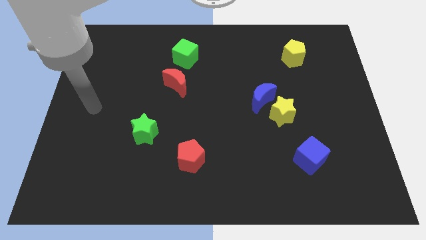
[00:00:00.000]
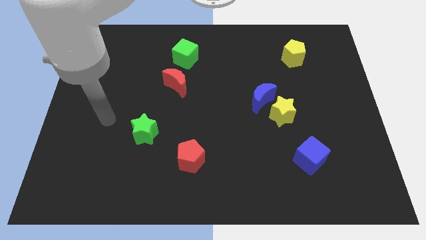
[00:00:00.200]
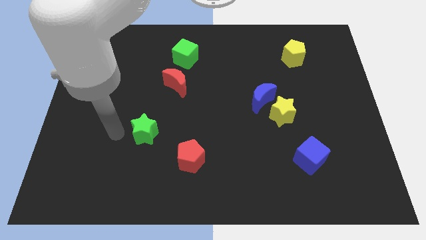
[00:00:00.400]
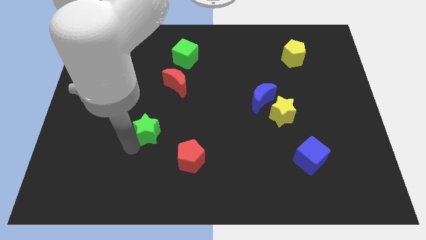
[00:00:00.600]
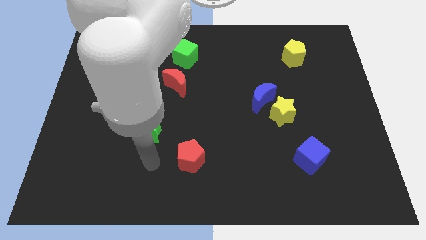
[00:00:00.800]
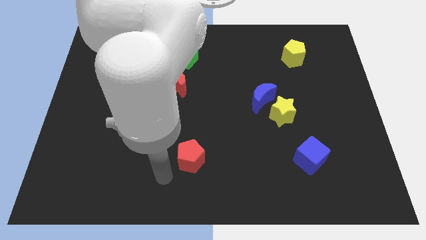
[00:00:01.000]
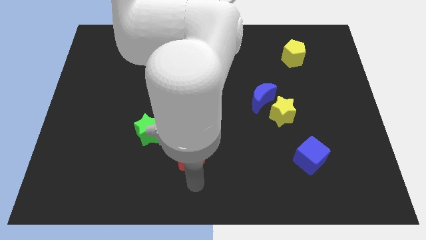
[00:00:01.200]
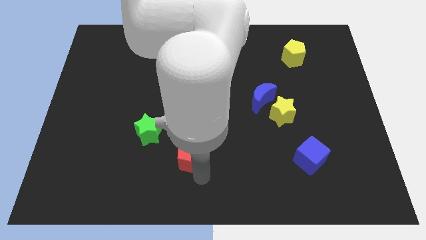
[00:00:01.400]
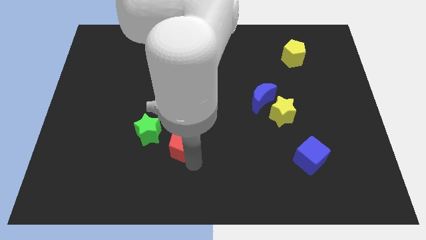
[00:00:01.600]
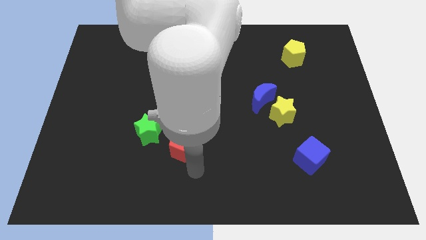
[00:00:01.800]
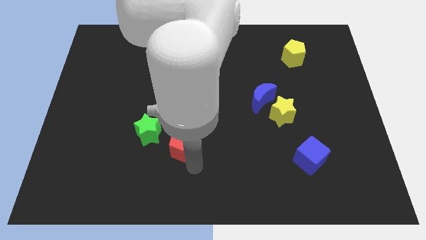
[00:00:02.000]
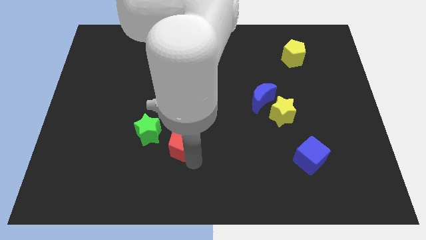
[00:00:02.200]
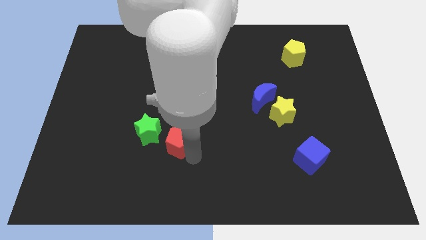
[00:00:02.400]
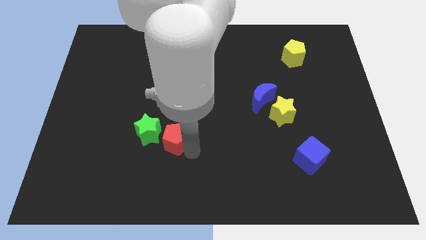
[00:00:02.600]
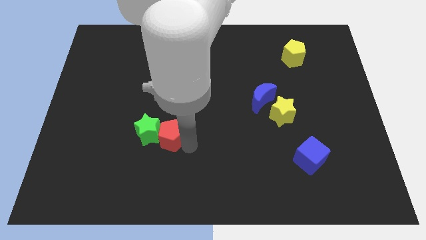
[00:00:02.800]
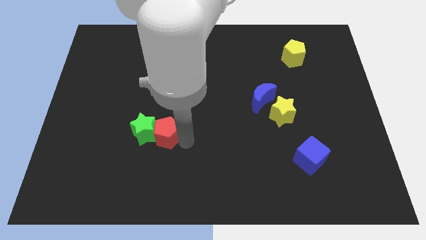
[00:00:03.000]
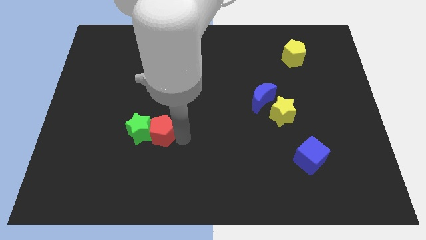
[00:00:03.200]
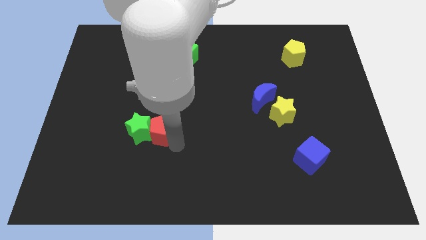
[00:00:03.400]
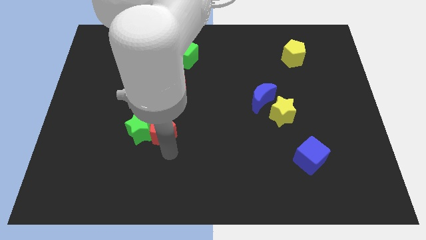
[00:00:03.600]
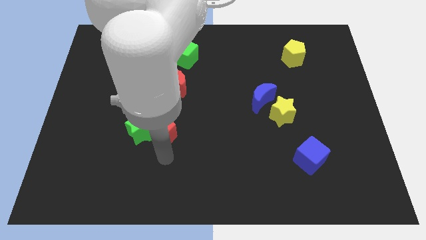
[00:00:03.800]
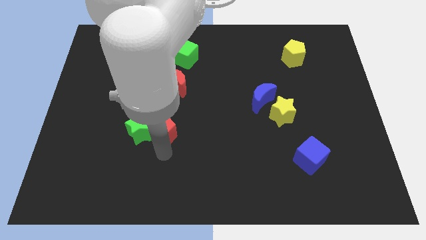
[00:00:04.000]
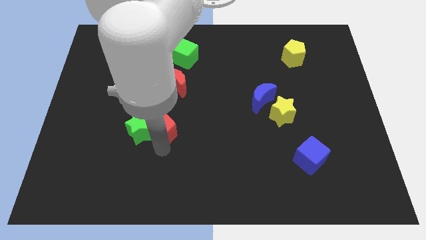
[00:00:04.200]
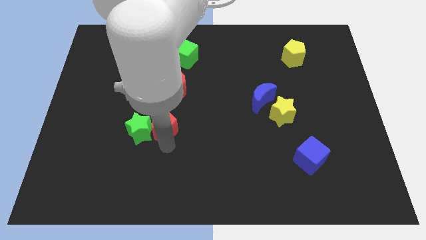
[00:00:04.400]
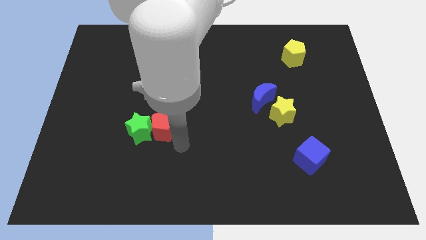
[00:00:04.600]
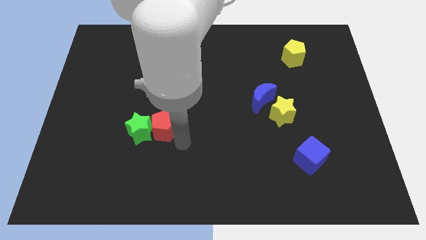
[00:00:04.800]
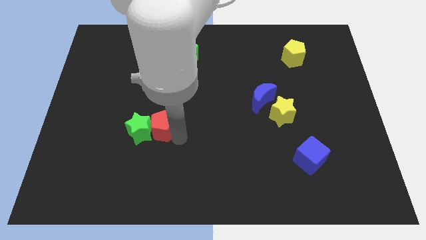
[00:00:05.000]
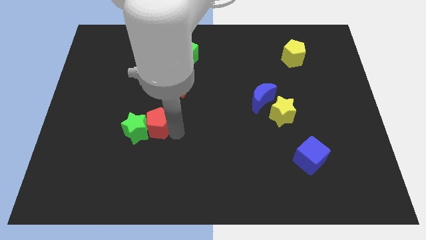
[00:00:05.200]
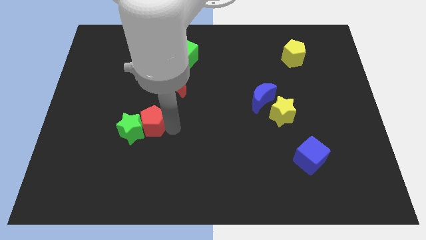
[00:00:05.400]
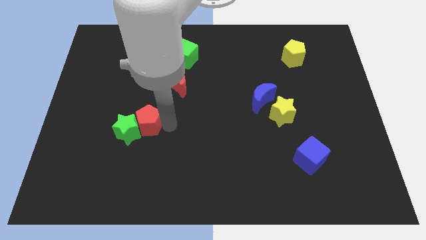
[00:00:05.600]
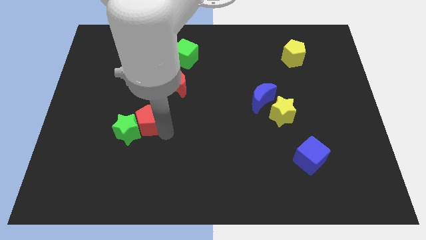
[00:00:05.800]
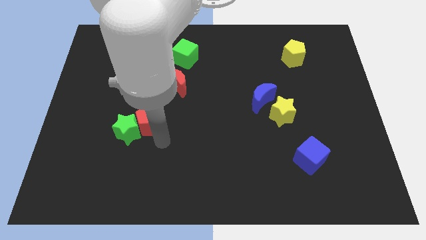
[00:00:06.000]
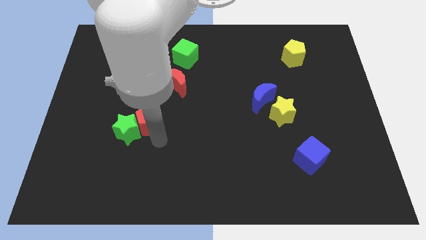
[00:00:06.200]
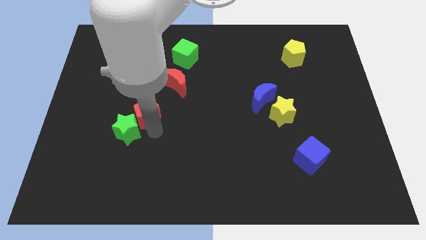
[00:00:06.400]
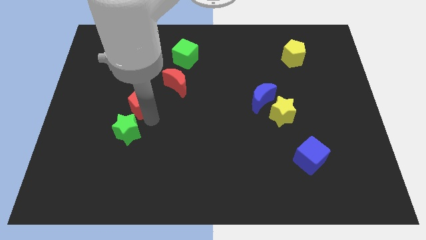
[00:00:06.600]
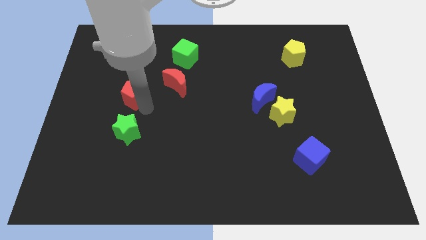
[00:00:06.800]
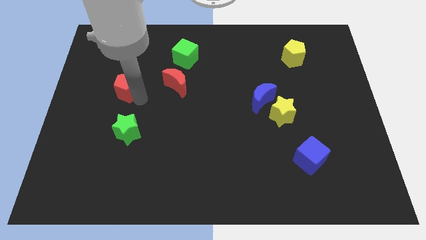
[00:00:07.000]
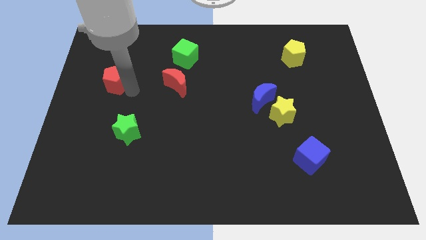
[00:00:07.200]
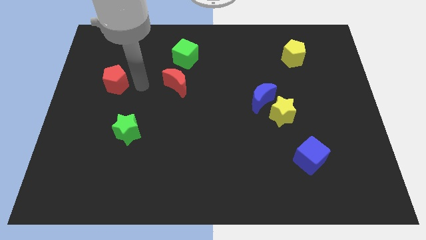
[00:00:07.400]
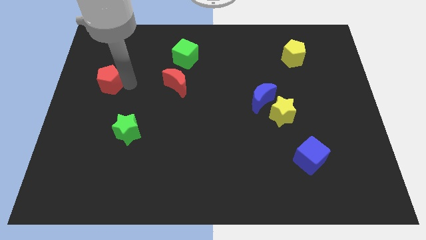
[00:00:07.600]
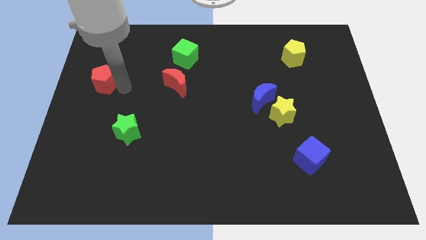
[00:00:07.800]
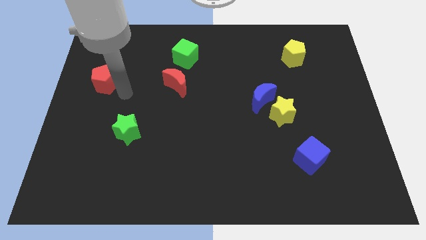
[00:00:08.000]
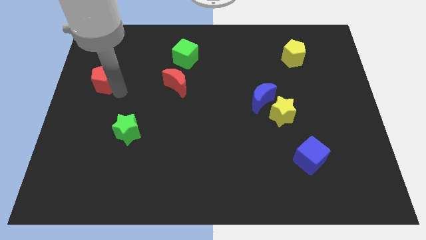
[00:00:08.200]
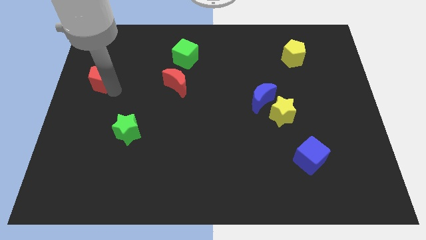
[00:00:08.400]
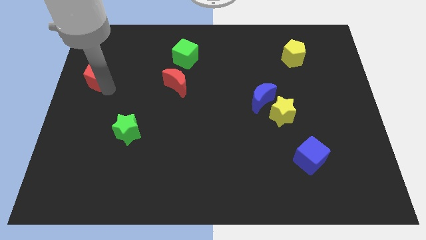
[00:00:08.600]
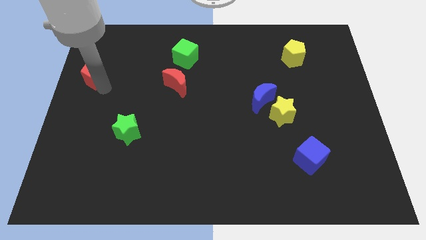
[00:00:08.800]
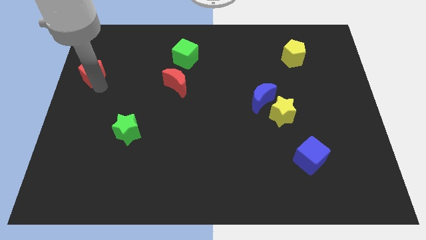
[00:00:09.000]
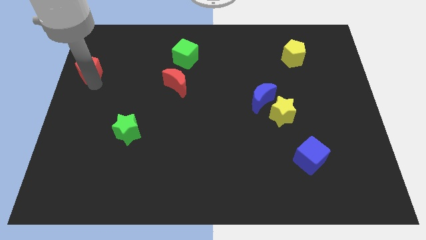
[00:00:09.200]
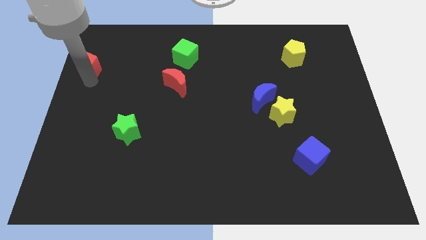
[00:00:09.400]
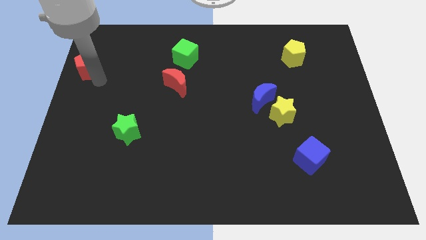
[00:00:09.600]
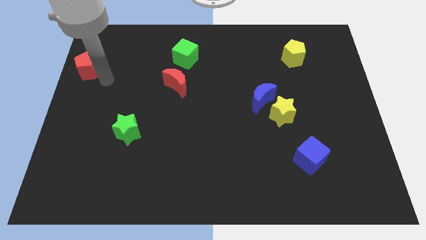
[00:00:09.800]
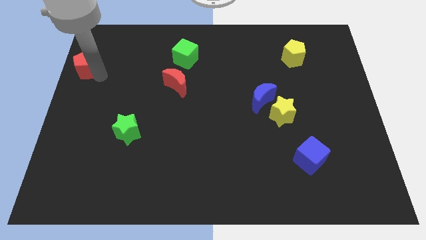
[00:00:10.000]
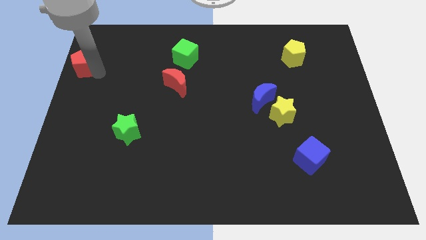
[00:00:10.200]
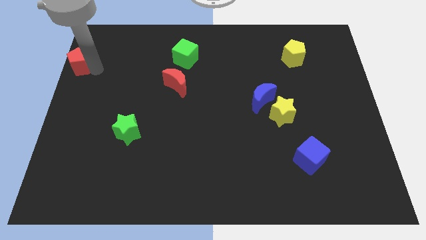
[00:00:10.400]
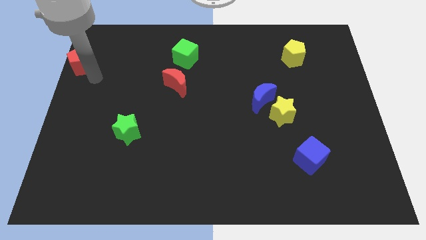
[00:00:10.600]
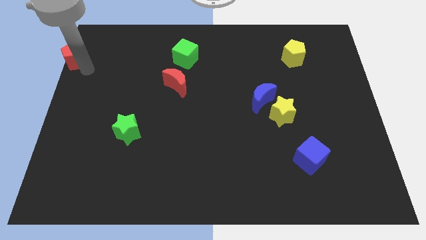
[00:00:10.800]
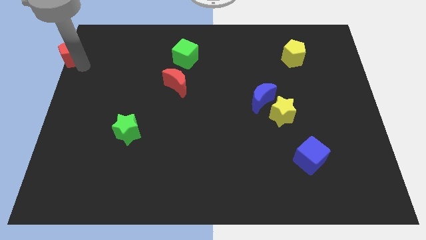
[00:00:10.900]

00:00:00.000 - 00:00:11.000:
push the red pentagon to the top left corner
